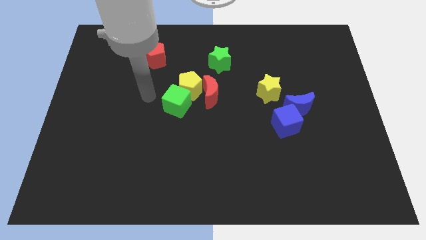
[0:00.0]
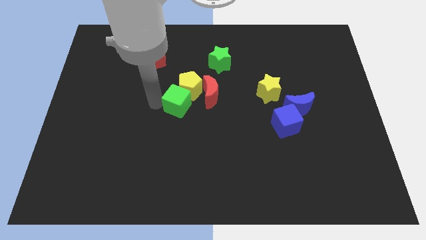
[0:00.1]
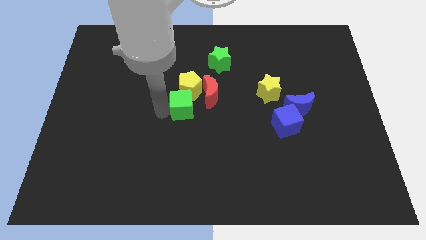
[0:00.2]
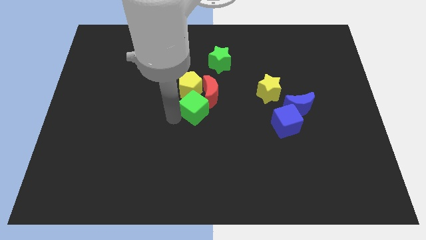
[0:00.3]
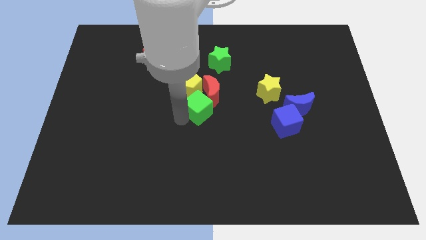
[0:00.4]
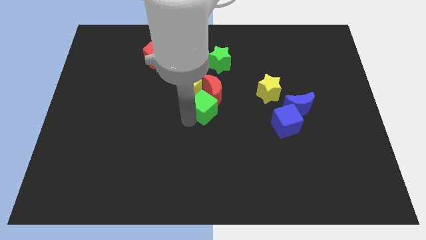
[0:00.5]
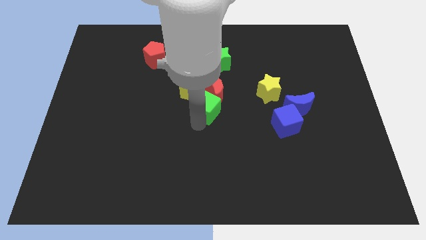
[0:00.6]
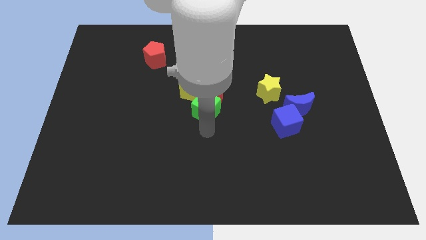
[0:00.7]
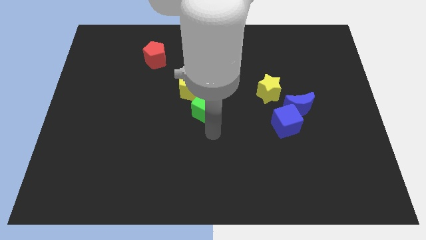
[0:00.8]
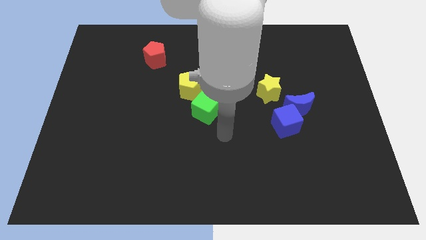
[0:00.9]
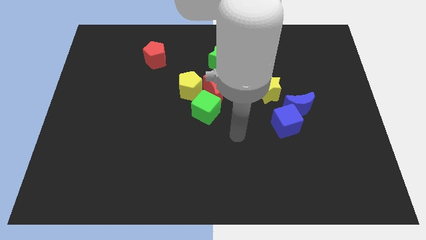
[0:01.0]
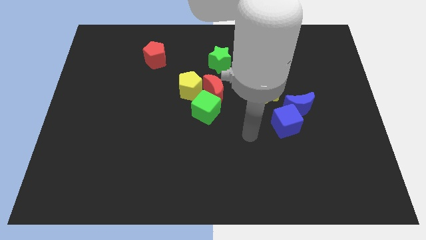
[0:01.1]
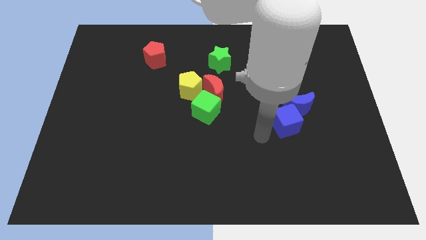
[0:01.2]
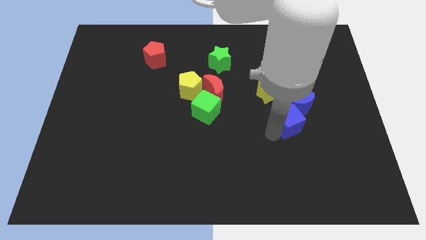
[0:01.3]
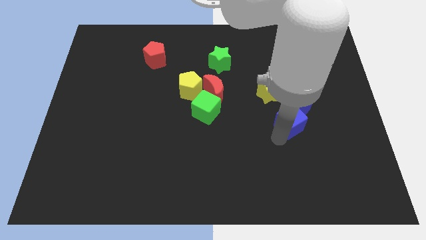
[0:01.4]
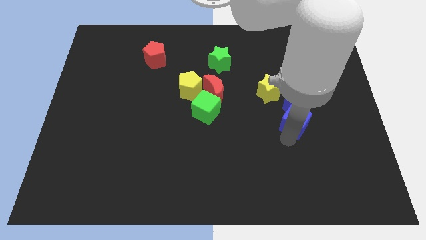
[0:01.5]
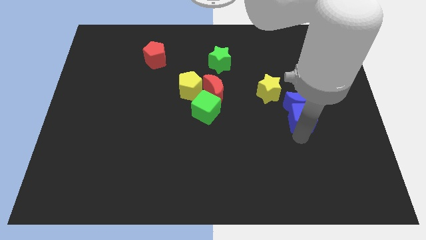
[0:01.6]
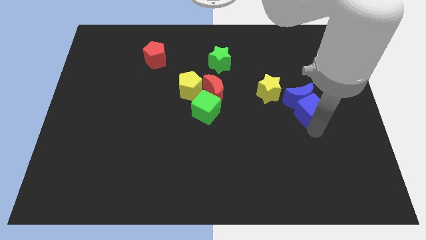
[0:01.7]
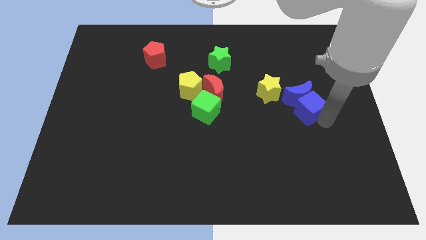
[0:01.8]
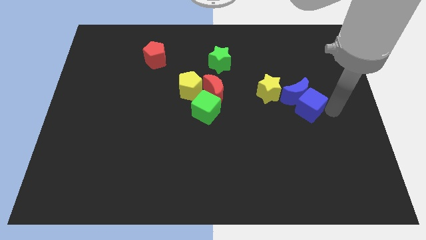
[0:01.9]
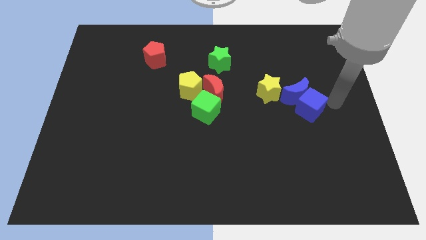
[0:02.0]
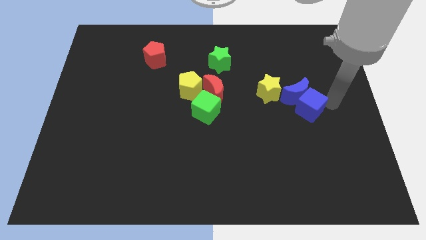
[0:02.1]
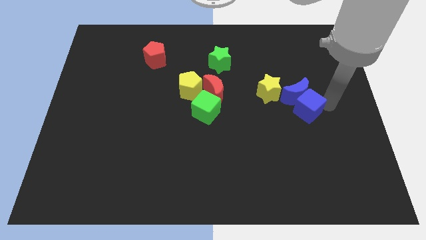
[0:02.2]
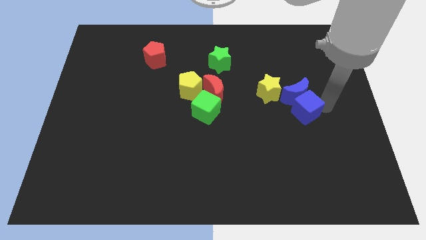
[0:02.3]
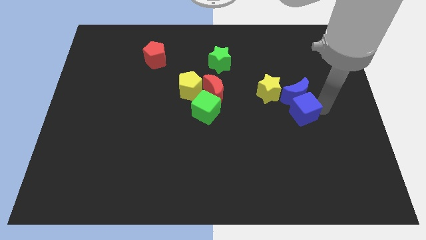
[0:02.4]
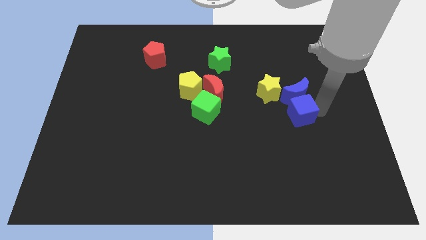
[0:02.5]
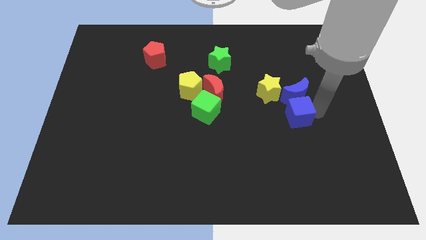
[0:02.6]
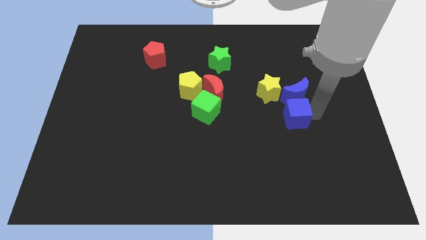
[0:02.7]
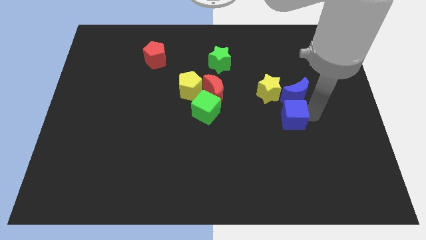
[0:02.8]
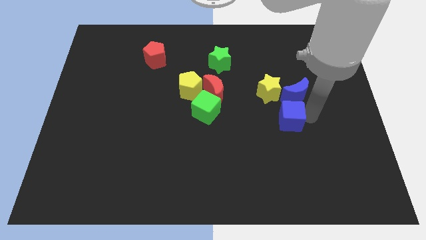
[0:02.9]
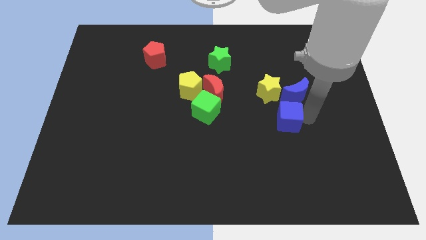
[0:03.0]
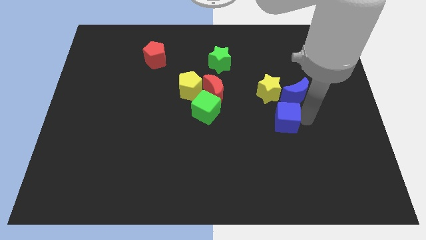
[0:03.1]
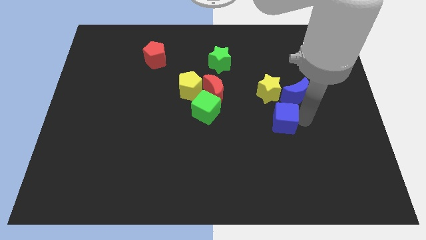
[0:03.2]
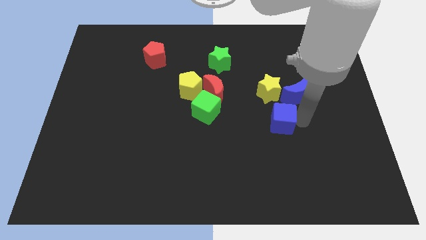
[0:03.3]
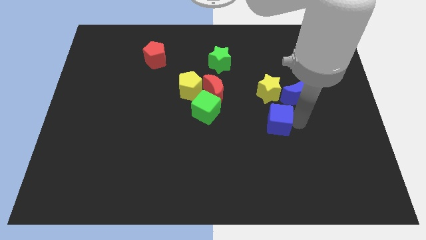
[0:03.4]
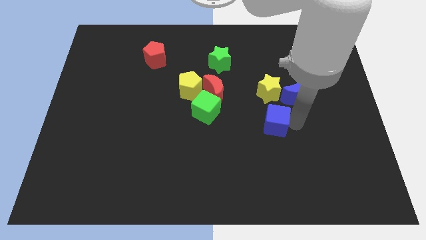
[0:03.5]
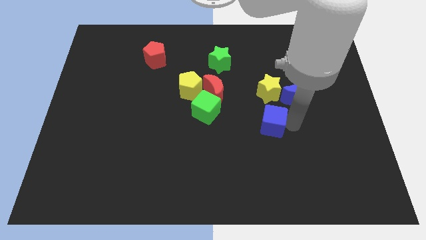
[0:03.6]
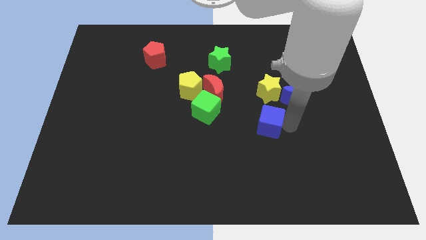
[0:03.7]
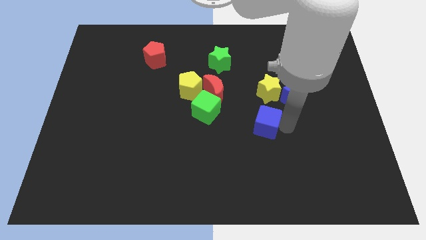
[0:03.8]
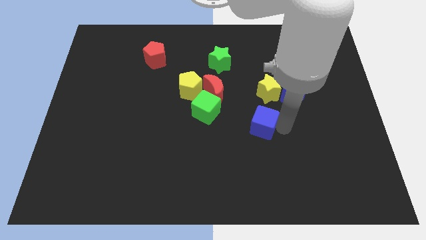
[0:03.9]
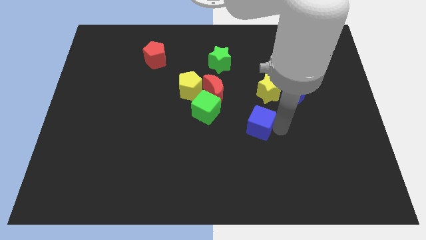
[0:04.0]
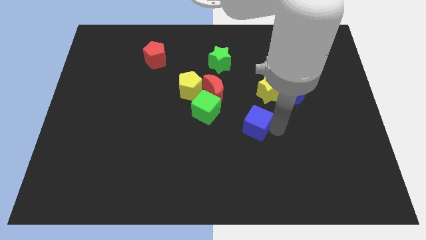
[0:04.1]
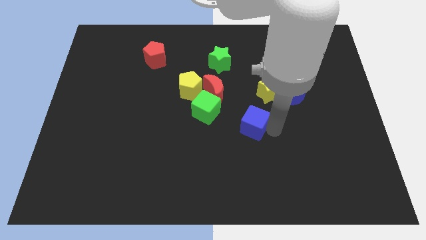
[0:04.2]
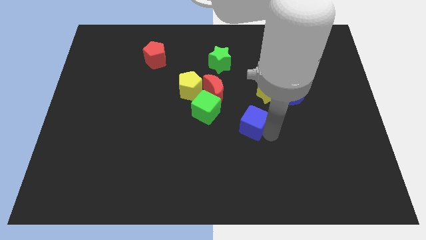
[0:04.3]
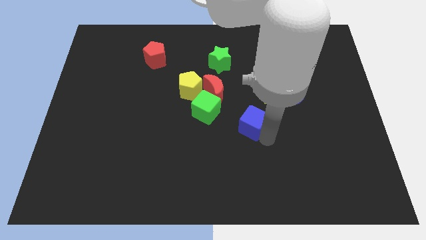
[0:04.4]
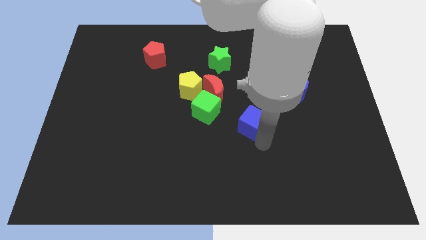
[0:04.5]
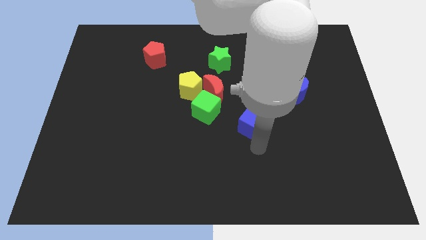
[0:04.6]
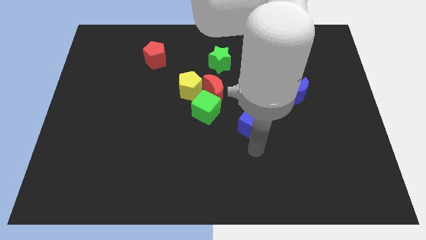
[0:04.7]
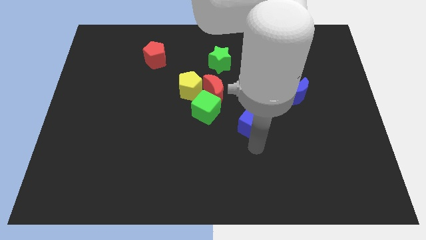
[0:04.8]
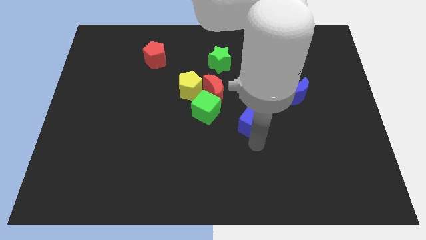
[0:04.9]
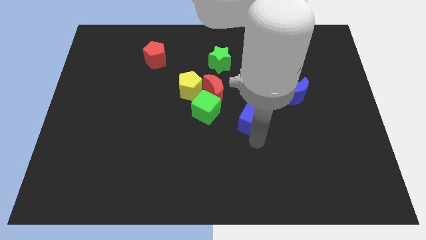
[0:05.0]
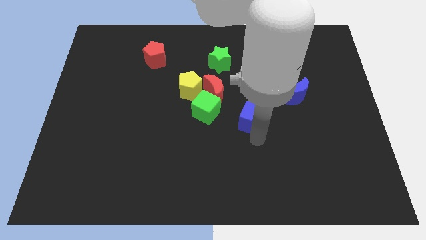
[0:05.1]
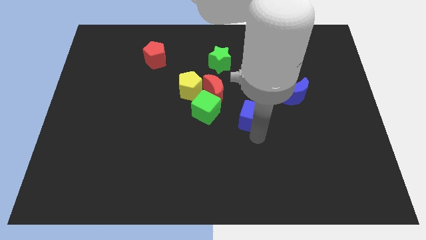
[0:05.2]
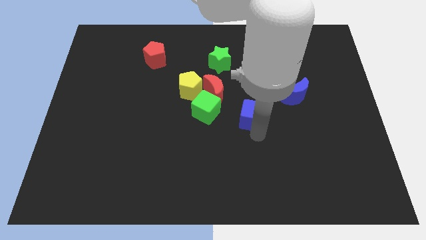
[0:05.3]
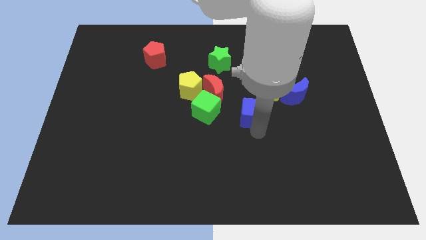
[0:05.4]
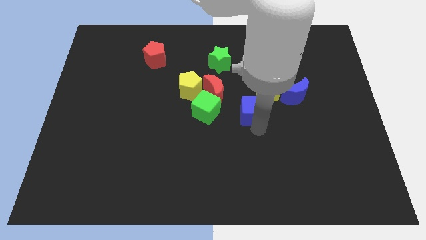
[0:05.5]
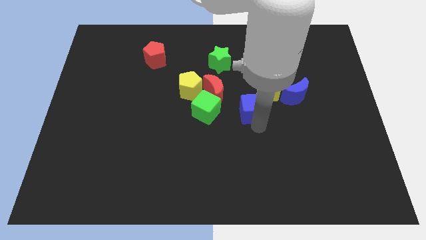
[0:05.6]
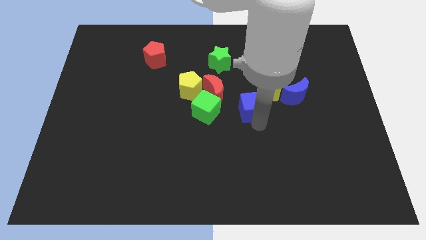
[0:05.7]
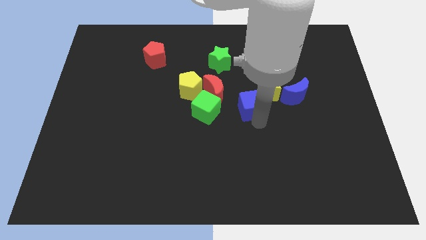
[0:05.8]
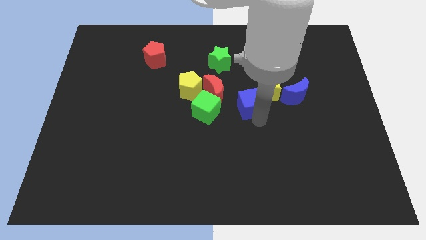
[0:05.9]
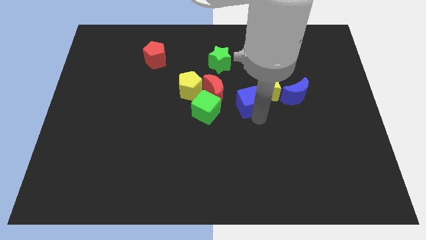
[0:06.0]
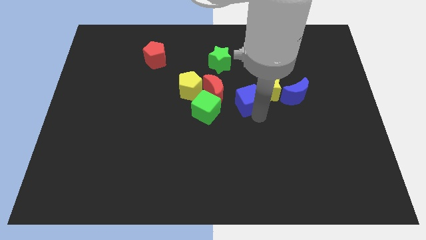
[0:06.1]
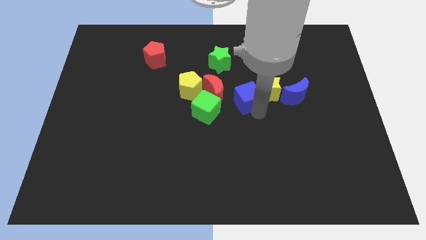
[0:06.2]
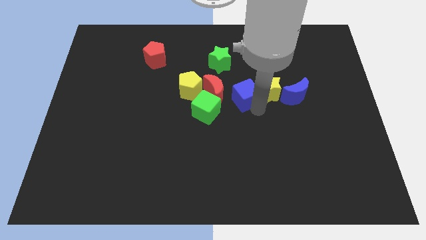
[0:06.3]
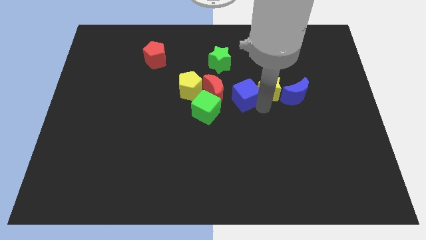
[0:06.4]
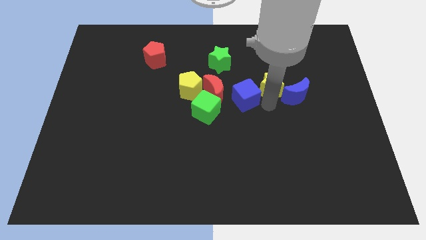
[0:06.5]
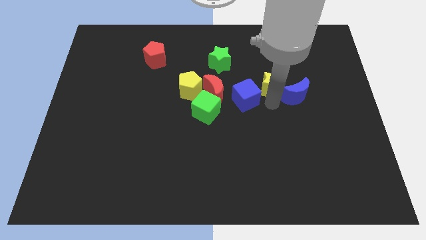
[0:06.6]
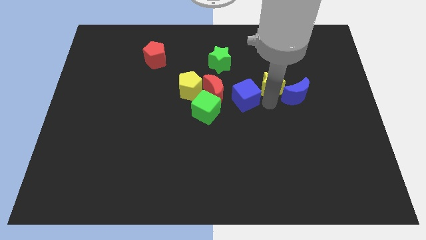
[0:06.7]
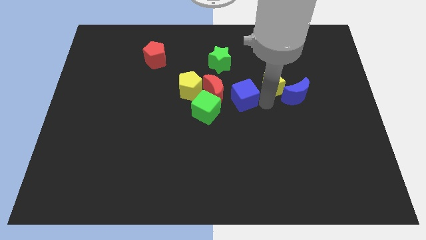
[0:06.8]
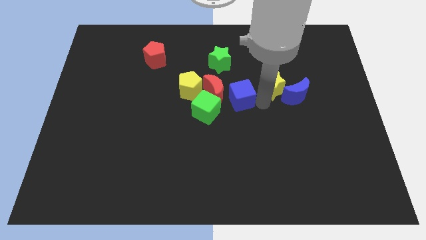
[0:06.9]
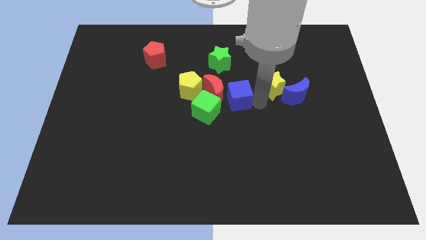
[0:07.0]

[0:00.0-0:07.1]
put the blue cube close to the red moon
